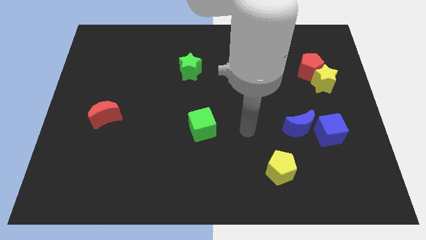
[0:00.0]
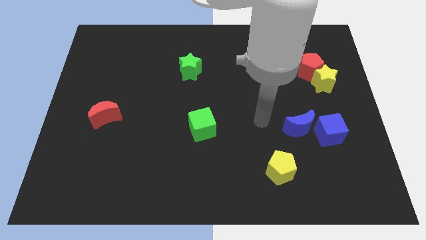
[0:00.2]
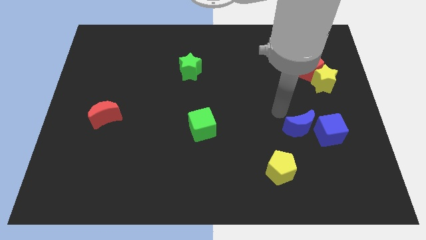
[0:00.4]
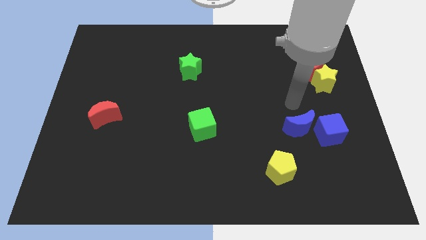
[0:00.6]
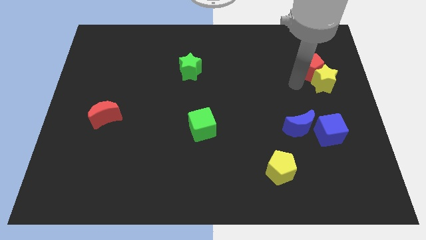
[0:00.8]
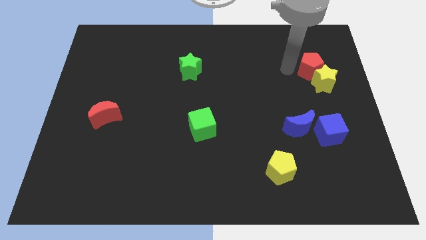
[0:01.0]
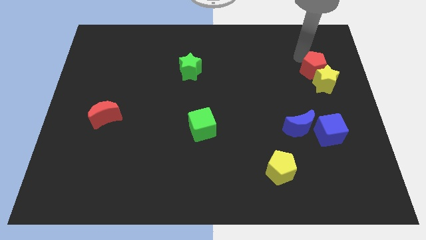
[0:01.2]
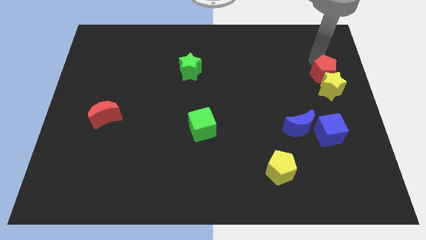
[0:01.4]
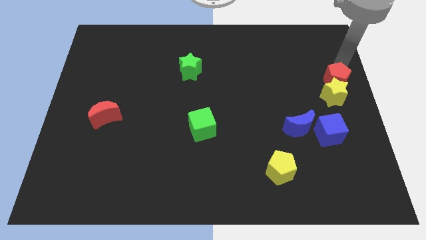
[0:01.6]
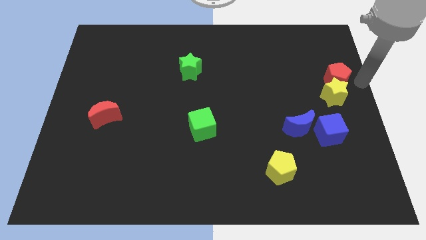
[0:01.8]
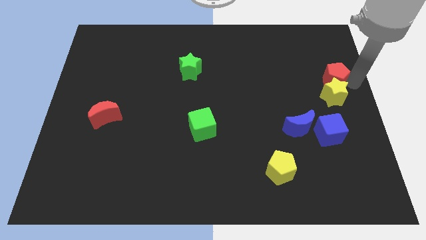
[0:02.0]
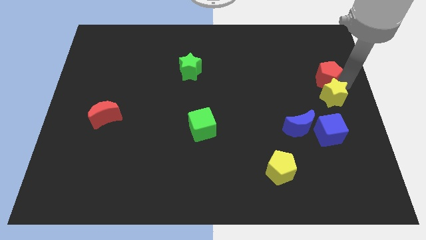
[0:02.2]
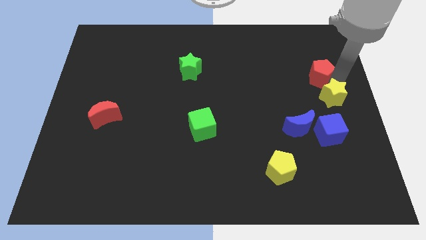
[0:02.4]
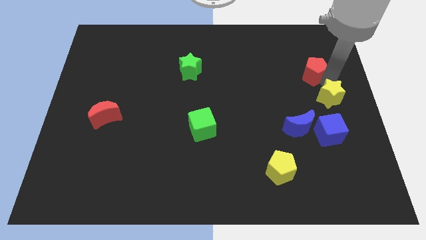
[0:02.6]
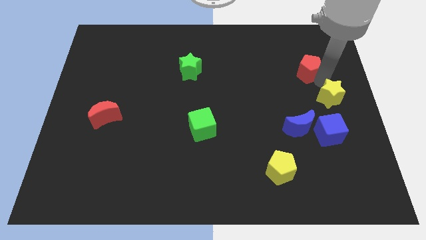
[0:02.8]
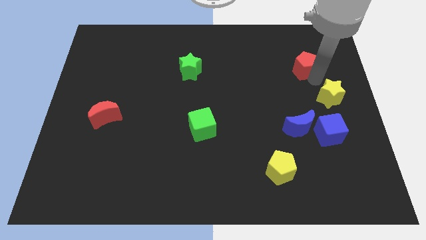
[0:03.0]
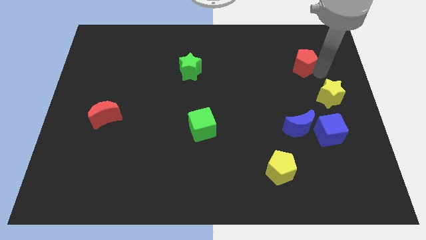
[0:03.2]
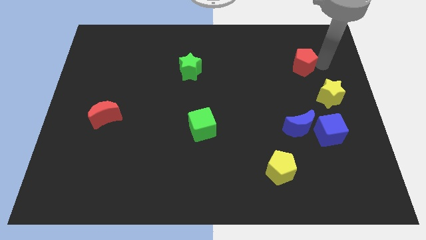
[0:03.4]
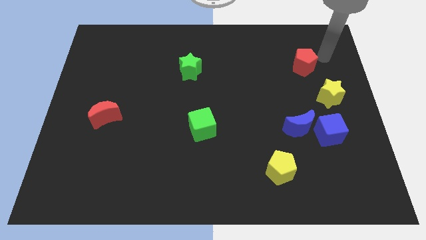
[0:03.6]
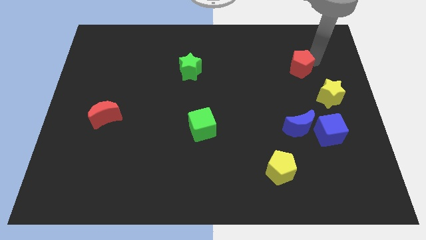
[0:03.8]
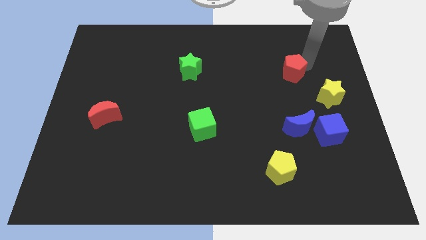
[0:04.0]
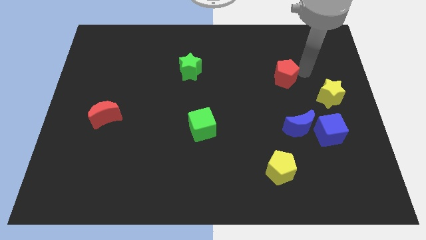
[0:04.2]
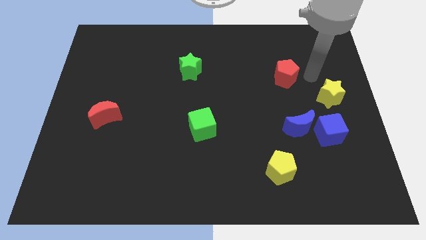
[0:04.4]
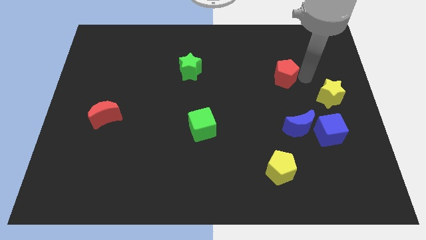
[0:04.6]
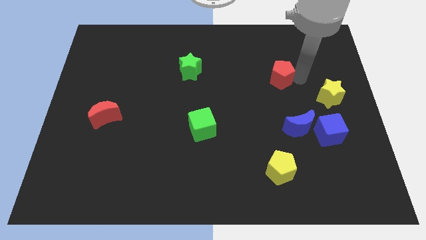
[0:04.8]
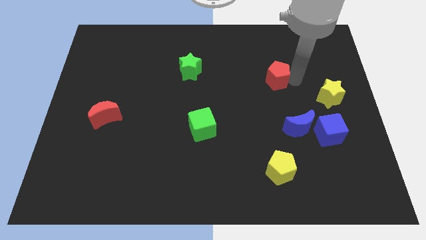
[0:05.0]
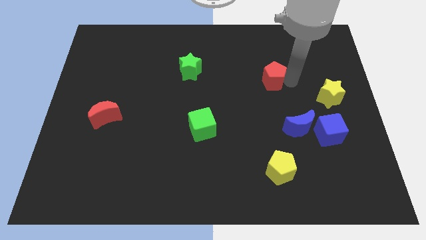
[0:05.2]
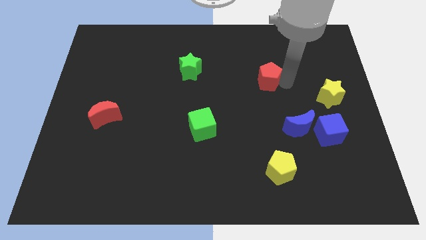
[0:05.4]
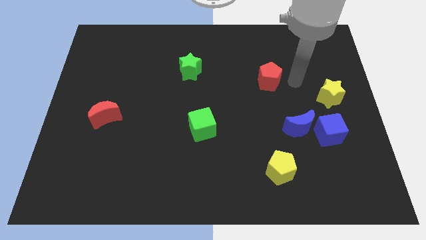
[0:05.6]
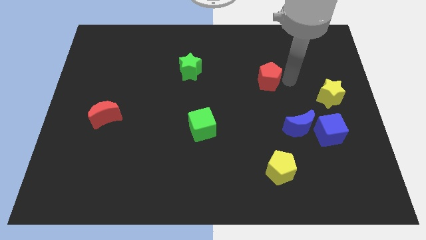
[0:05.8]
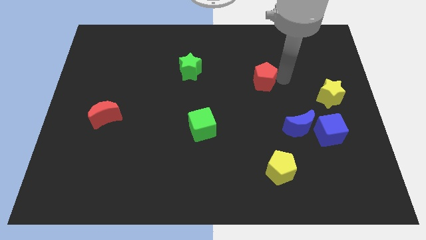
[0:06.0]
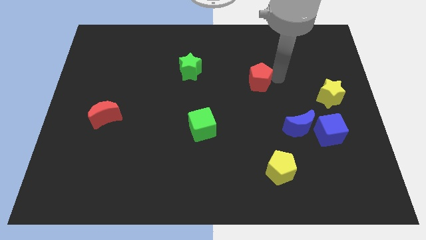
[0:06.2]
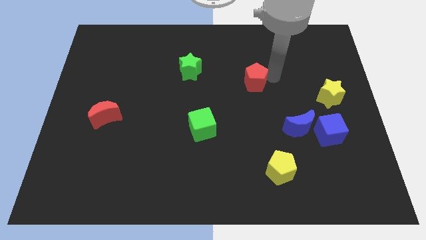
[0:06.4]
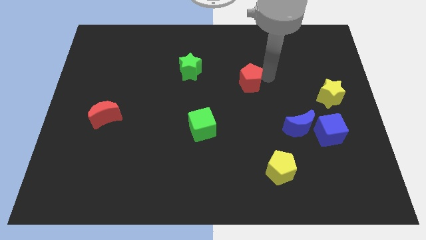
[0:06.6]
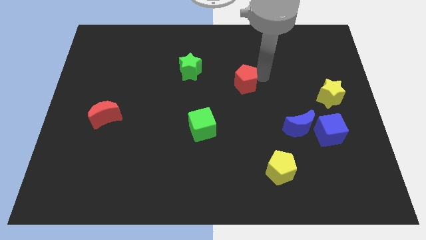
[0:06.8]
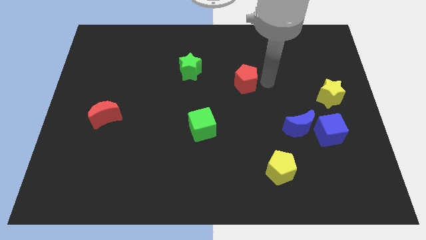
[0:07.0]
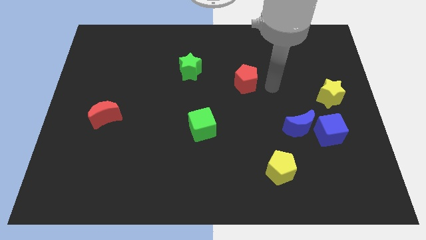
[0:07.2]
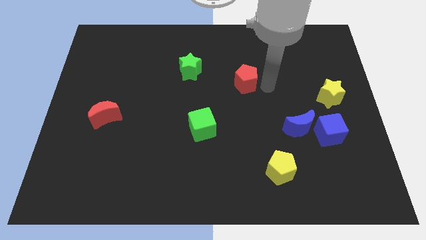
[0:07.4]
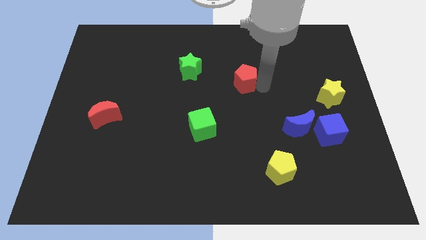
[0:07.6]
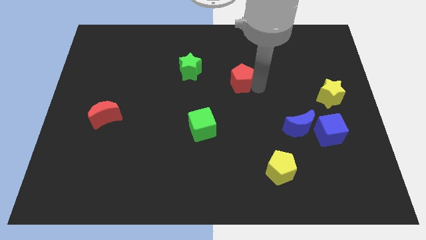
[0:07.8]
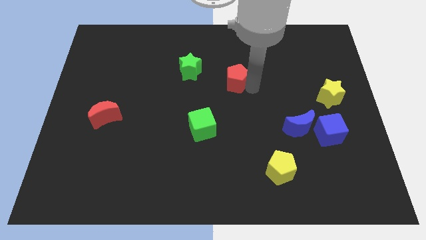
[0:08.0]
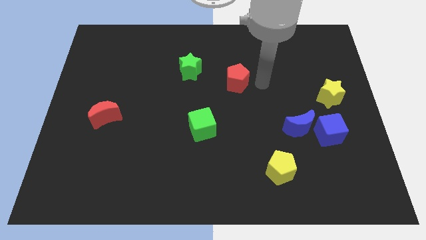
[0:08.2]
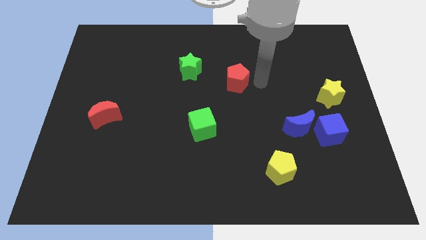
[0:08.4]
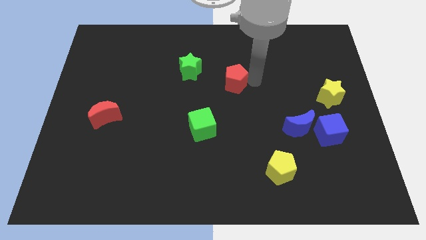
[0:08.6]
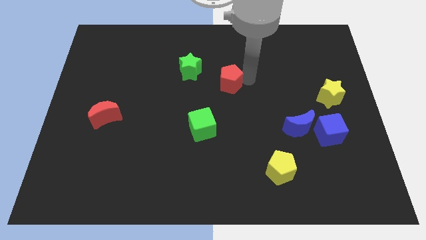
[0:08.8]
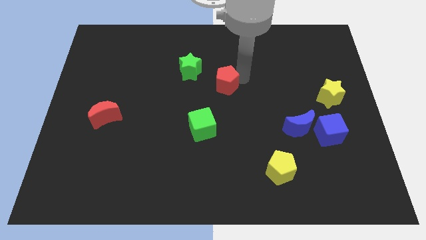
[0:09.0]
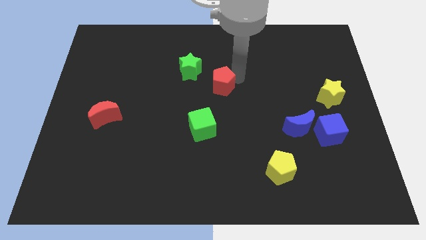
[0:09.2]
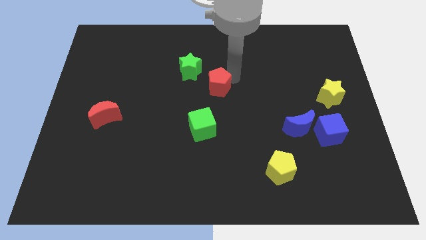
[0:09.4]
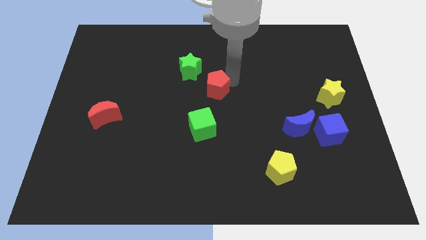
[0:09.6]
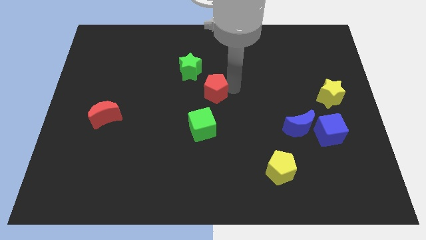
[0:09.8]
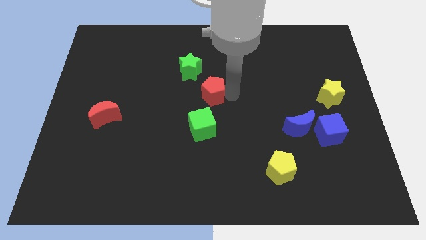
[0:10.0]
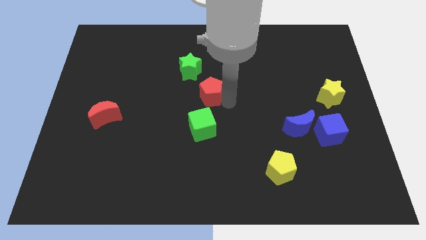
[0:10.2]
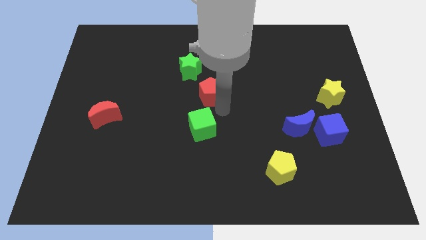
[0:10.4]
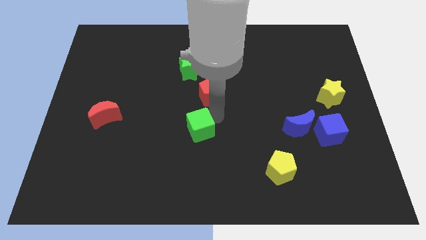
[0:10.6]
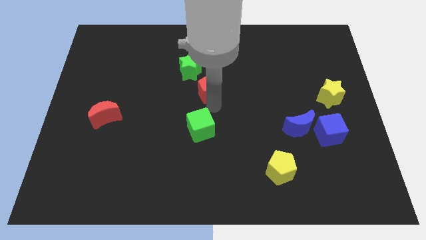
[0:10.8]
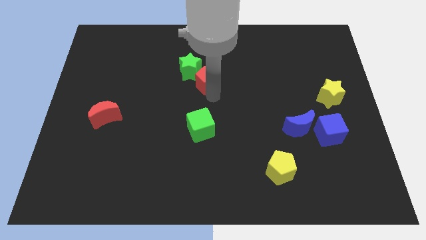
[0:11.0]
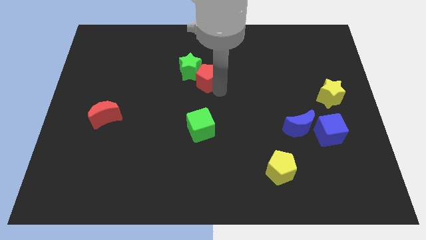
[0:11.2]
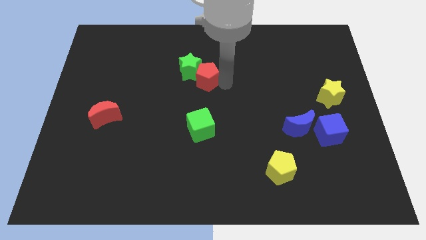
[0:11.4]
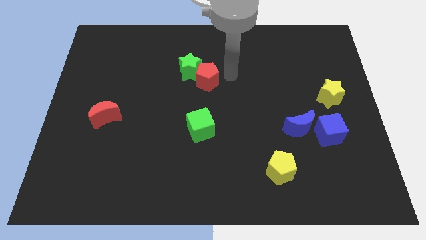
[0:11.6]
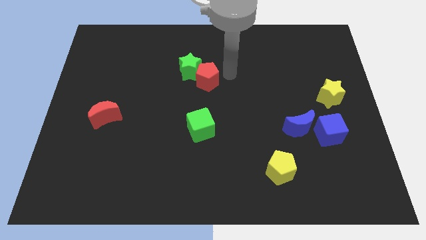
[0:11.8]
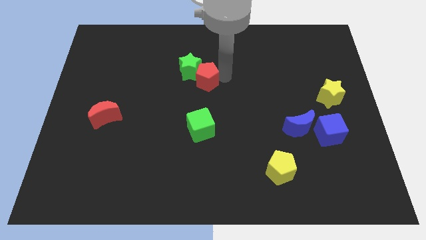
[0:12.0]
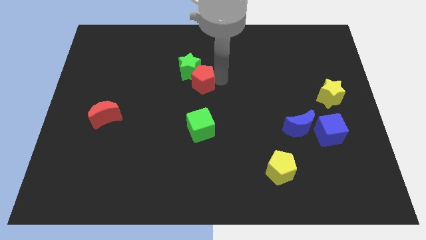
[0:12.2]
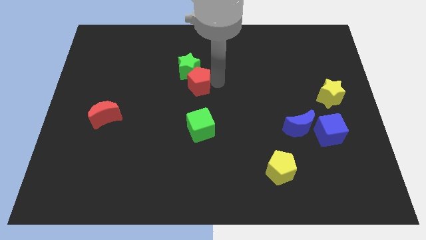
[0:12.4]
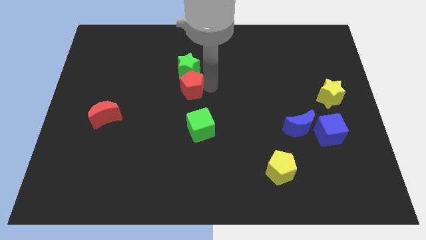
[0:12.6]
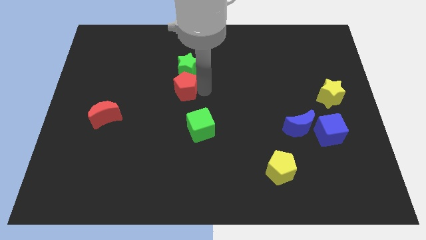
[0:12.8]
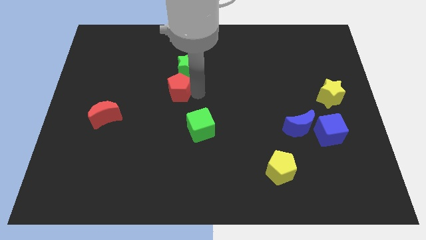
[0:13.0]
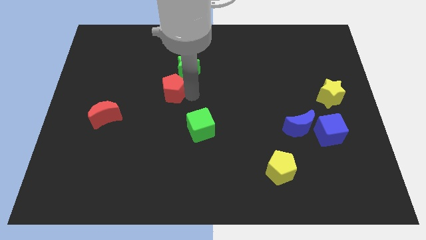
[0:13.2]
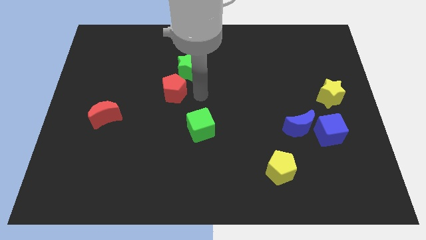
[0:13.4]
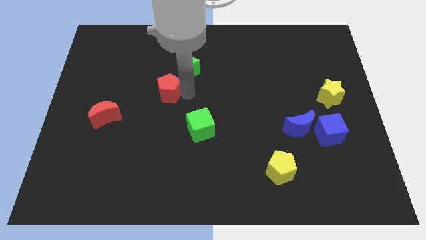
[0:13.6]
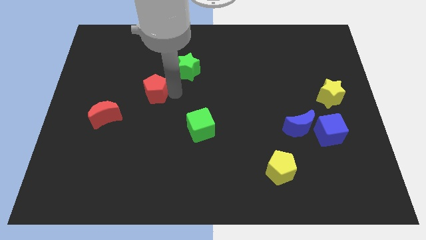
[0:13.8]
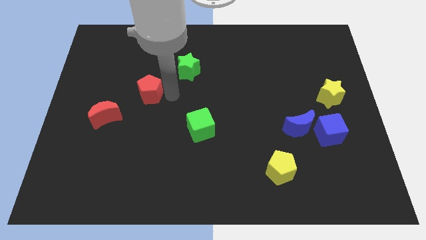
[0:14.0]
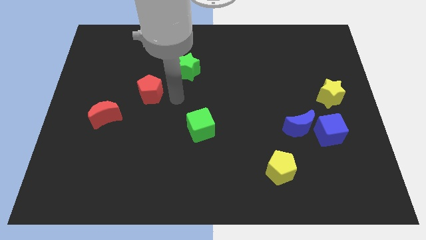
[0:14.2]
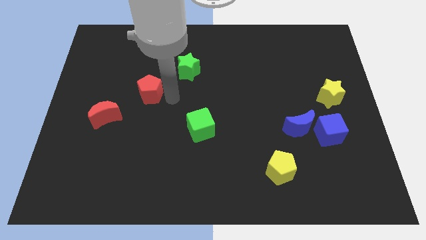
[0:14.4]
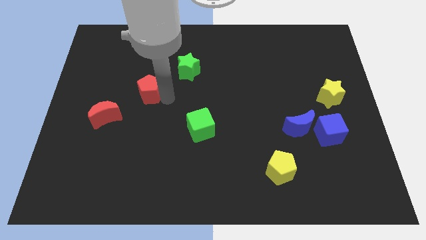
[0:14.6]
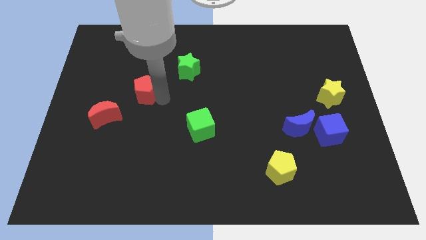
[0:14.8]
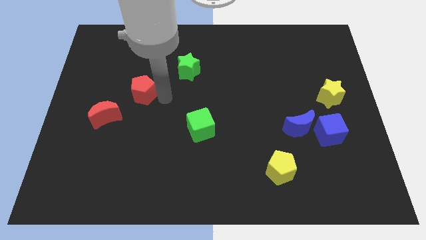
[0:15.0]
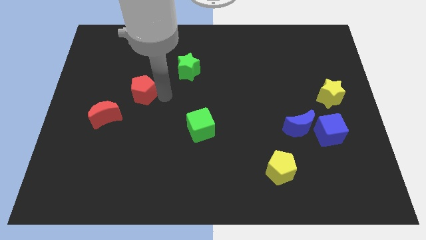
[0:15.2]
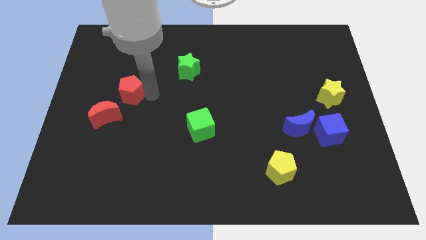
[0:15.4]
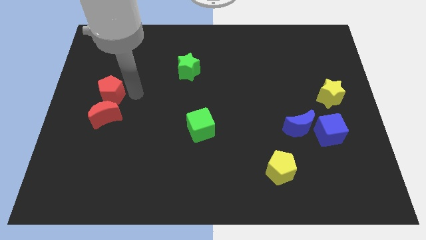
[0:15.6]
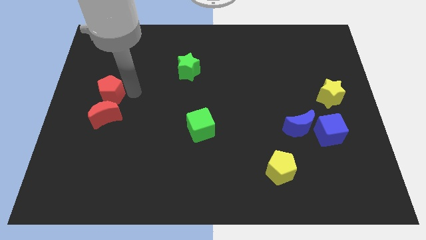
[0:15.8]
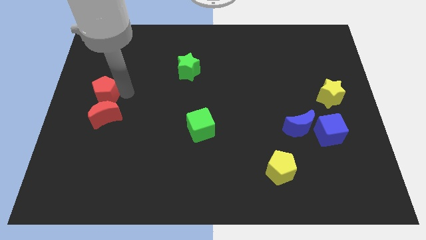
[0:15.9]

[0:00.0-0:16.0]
slide the red pentagon to the left side
